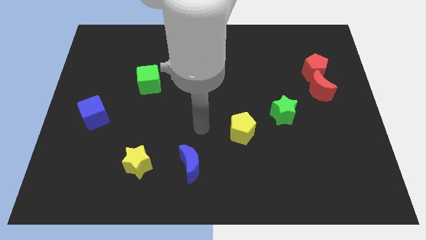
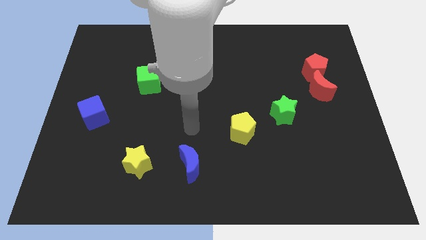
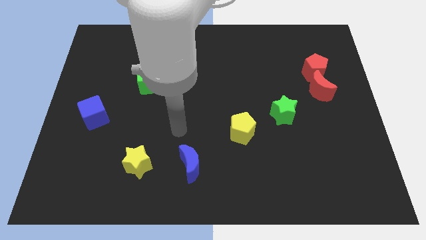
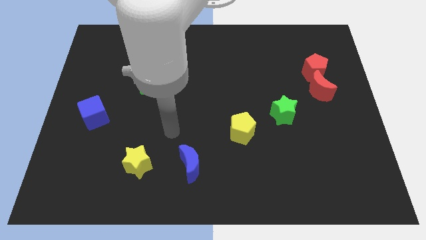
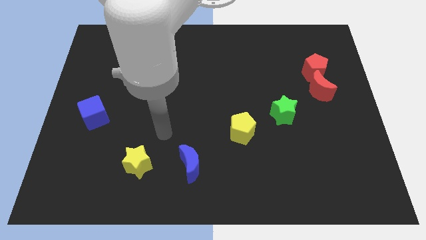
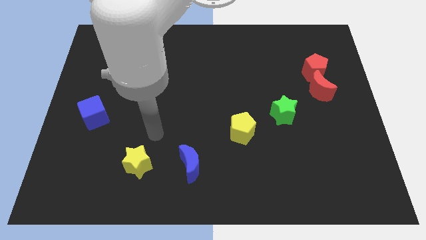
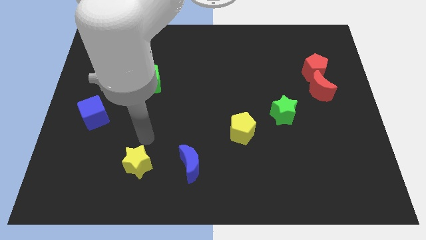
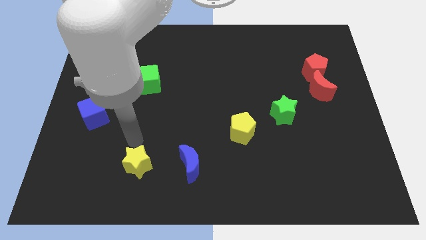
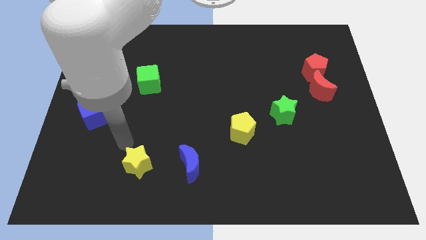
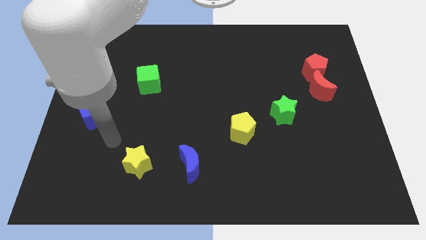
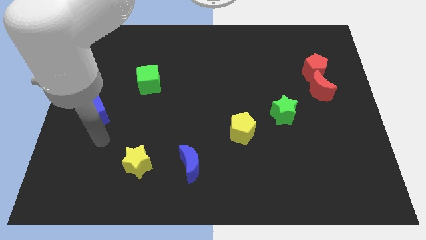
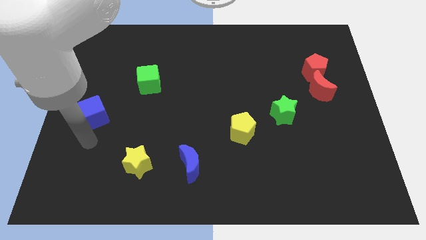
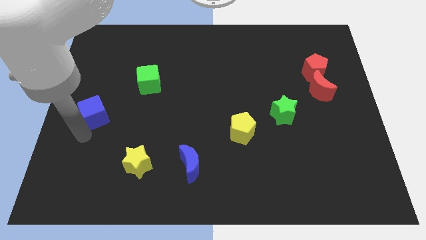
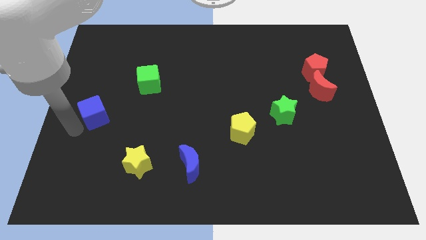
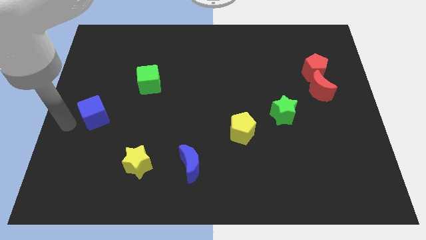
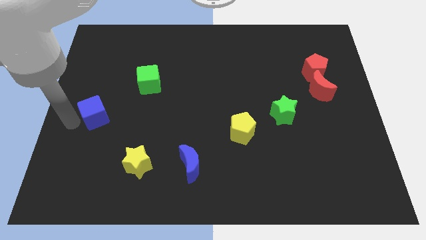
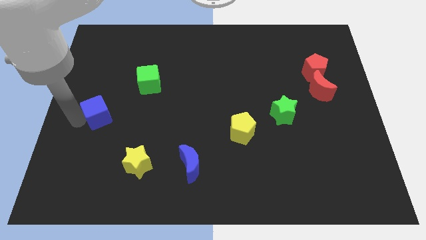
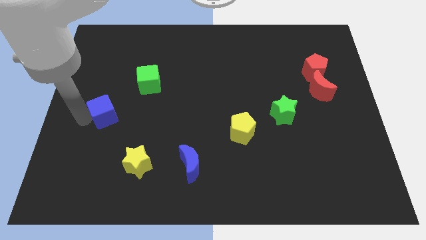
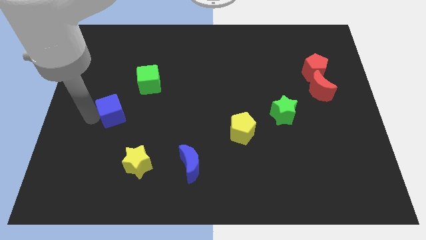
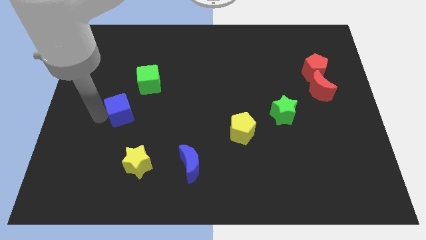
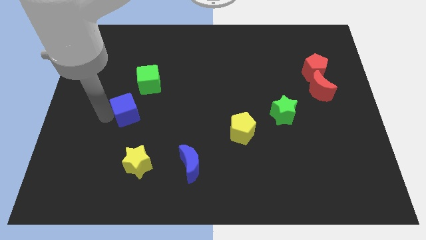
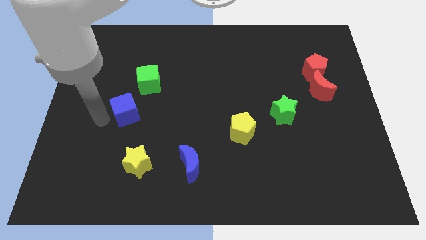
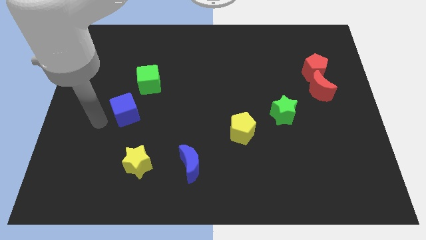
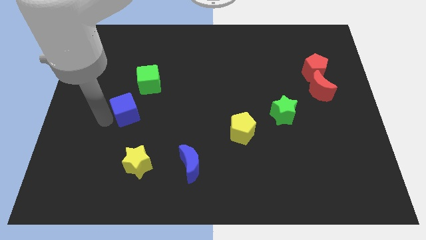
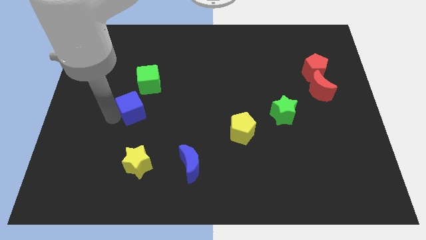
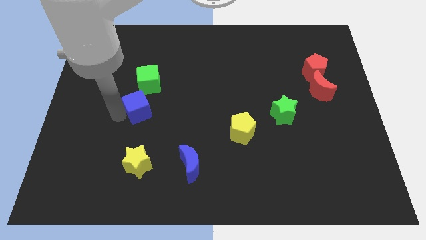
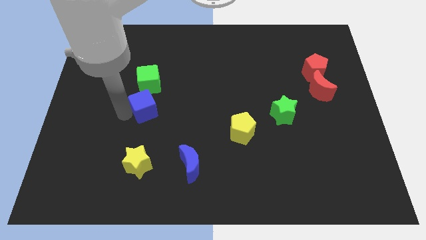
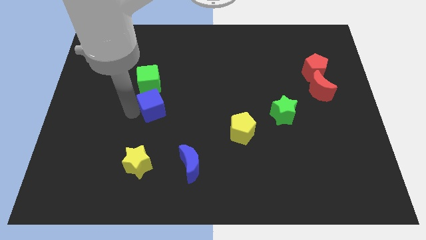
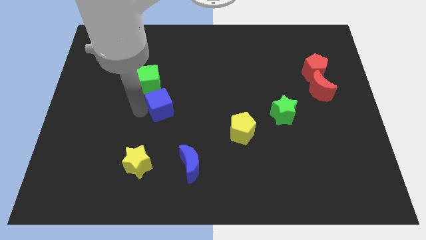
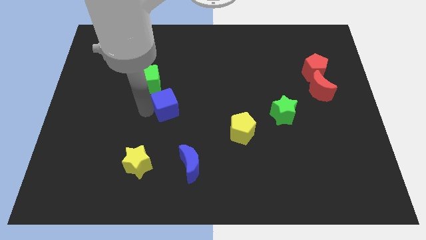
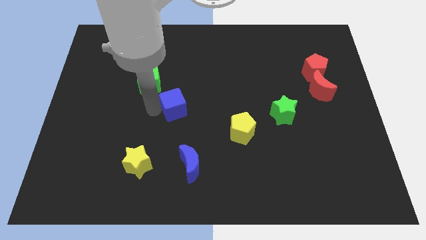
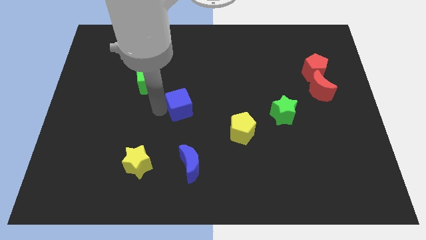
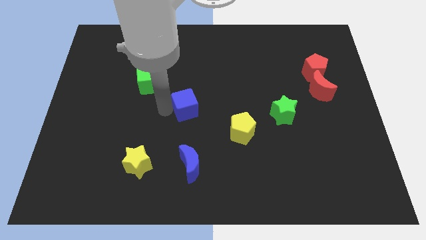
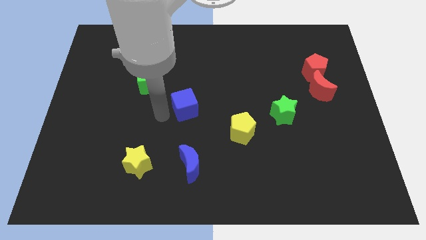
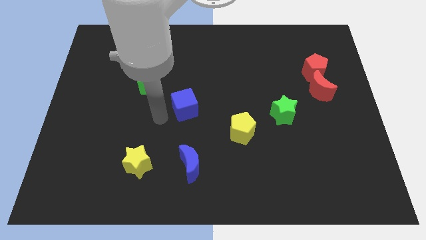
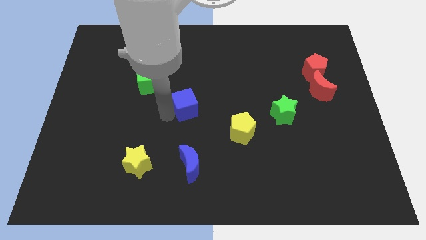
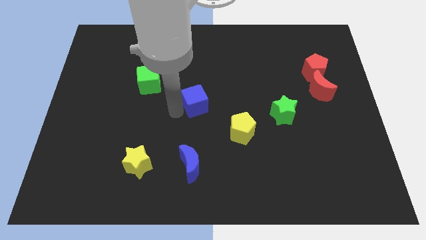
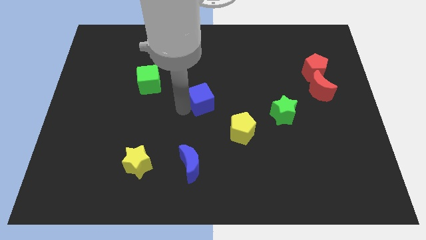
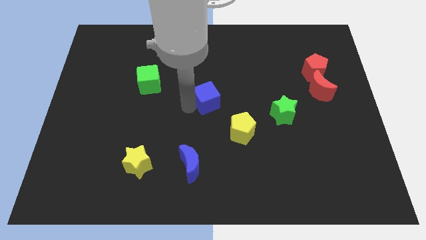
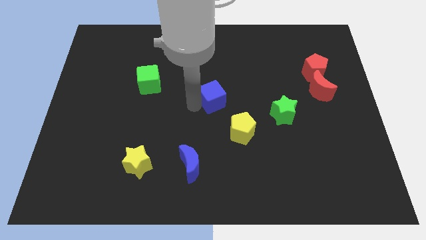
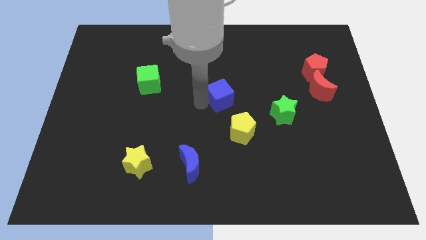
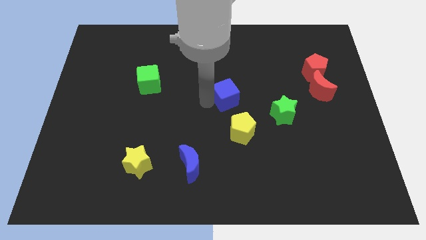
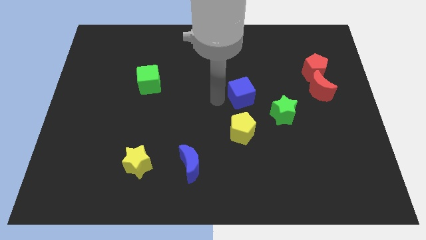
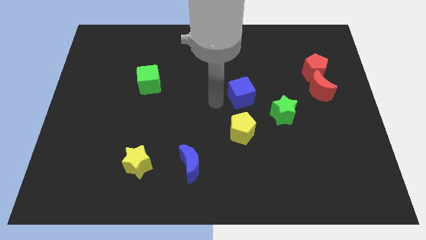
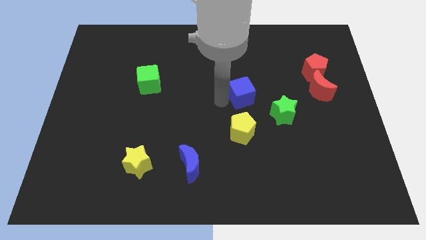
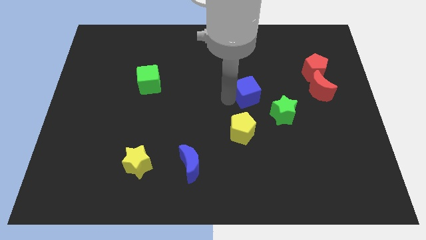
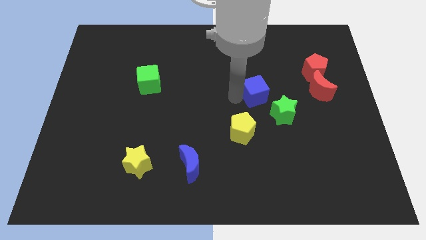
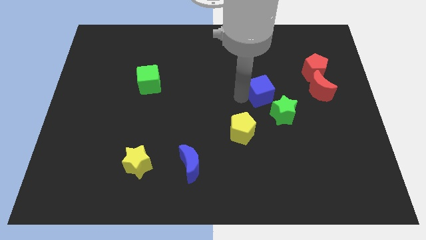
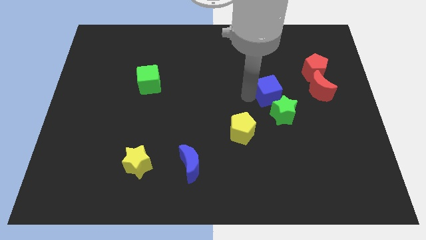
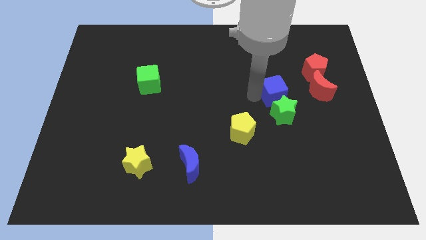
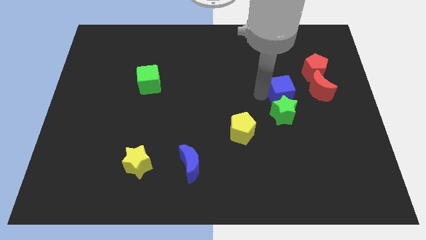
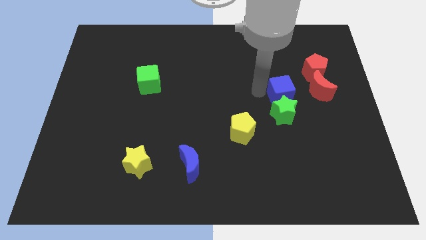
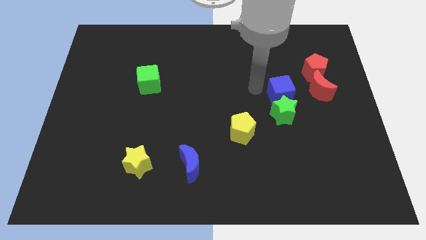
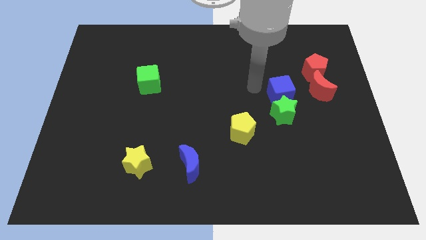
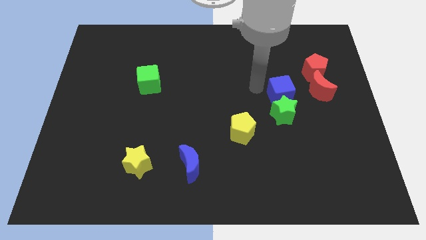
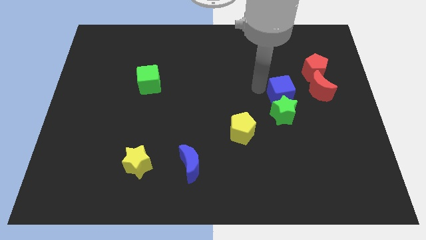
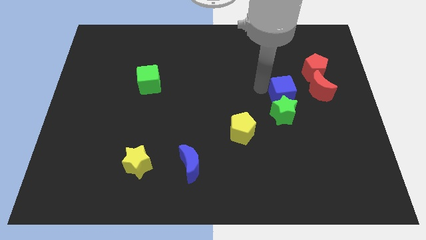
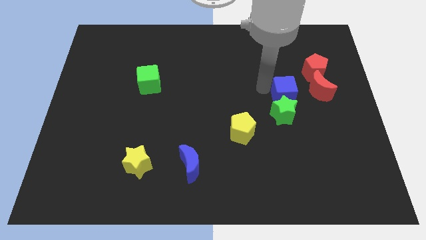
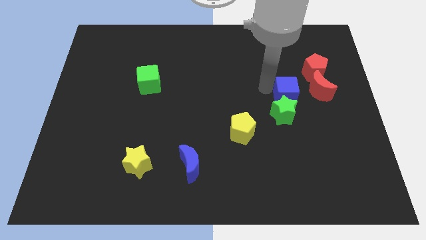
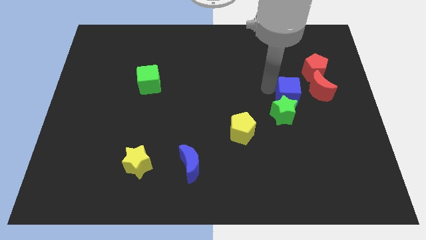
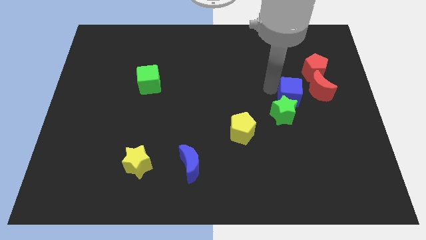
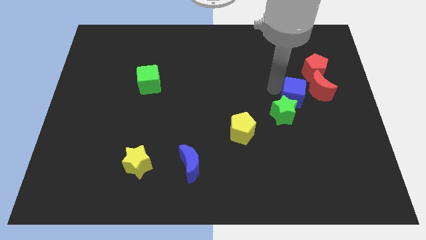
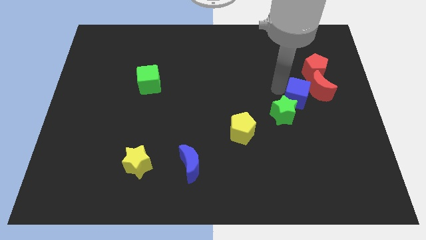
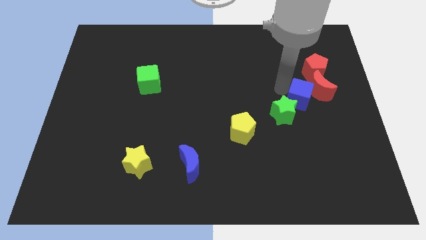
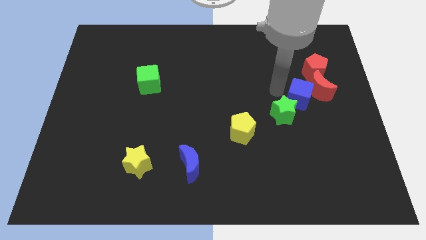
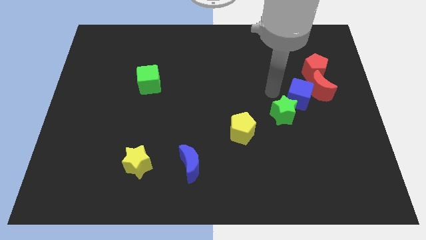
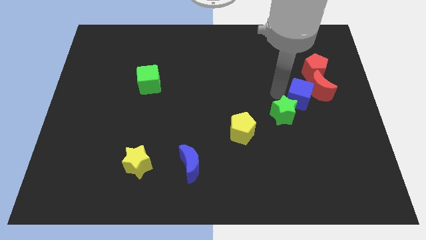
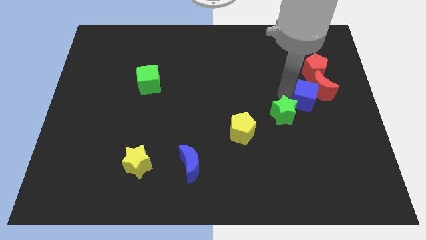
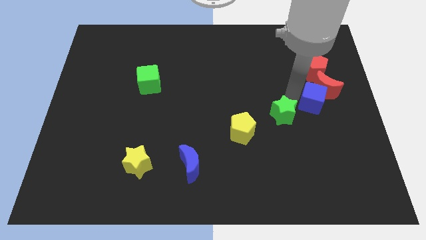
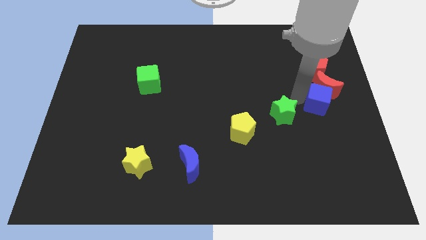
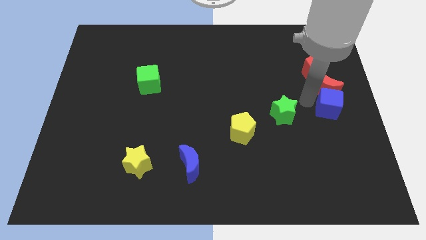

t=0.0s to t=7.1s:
slide the blue cube to the center right
